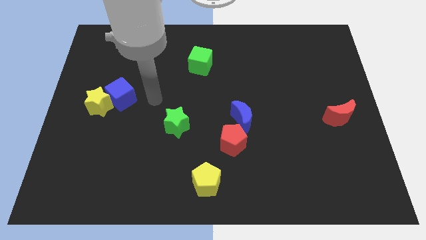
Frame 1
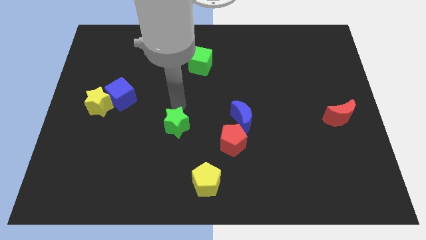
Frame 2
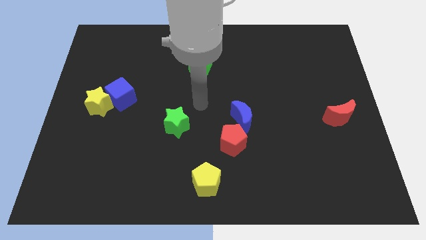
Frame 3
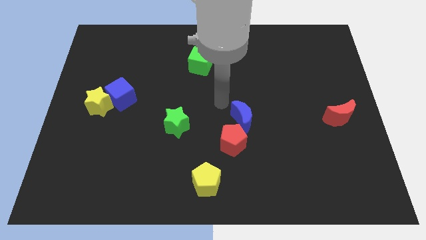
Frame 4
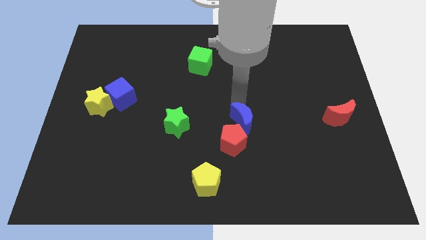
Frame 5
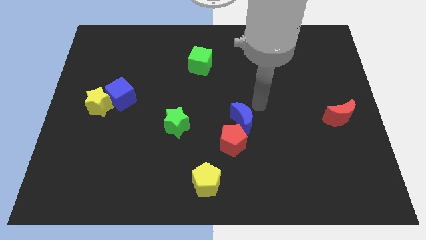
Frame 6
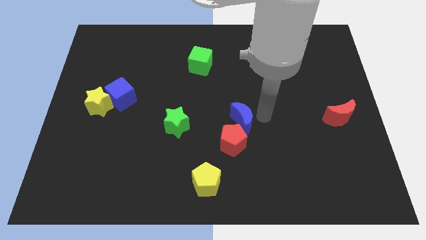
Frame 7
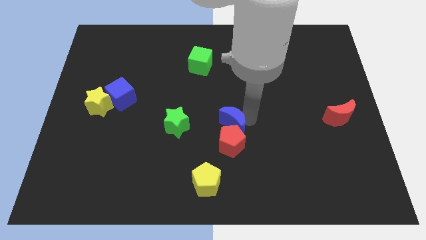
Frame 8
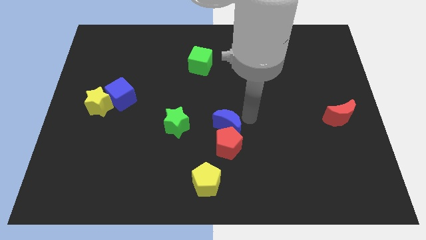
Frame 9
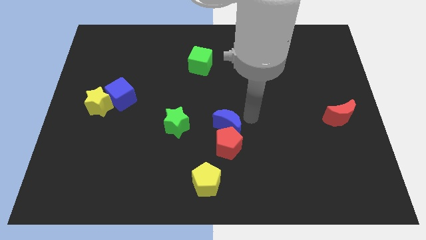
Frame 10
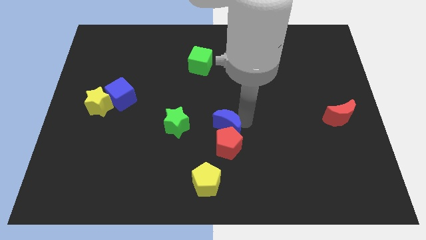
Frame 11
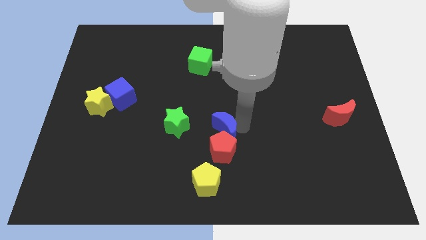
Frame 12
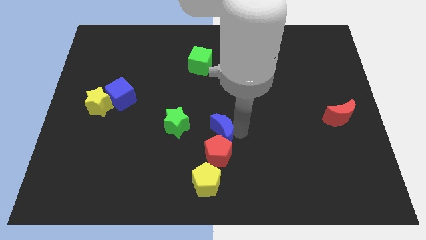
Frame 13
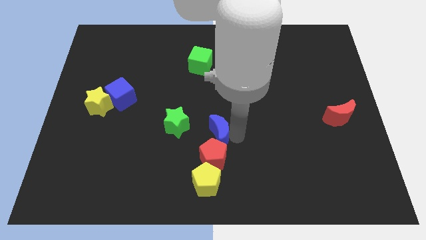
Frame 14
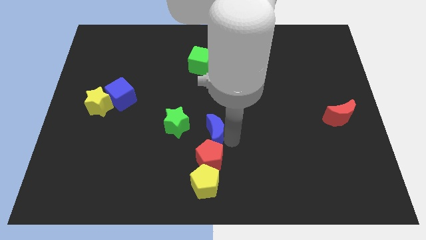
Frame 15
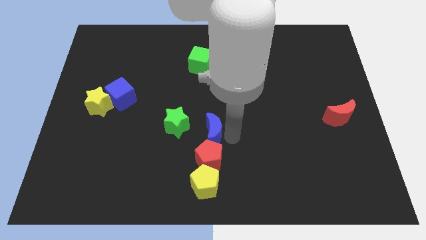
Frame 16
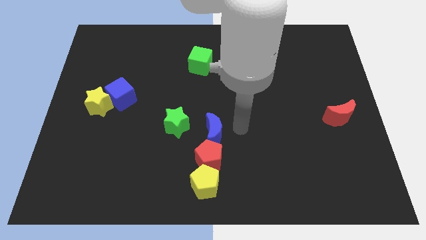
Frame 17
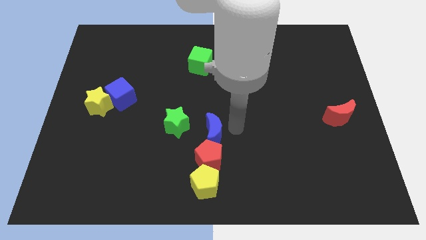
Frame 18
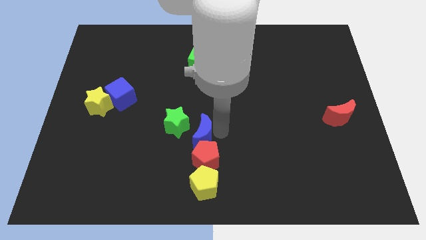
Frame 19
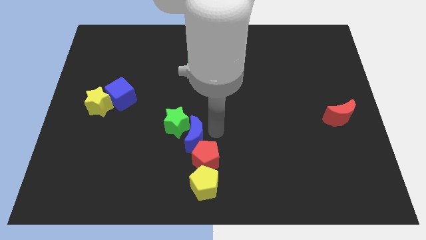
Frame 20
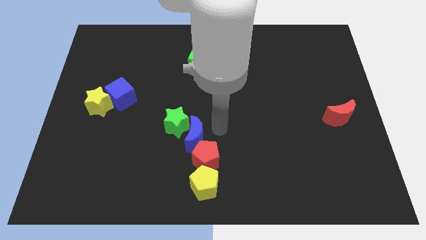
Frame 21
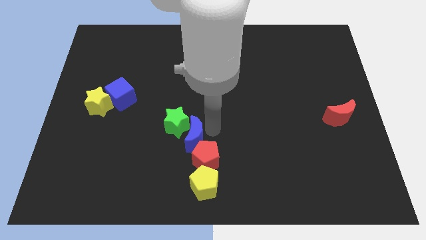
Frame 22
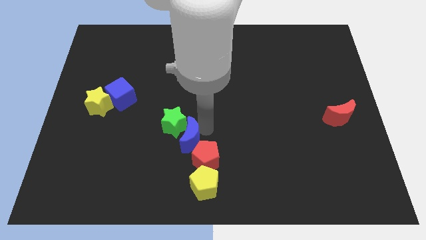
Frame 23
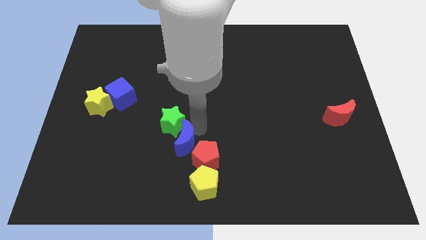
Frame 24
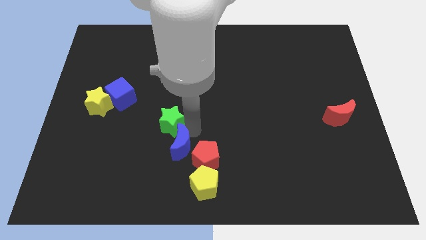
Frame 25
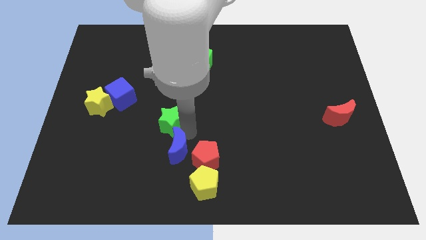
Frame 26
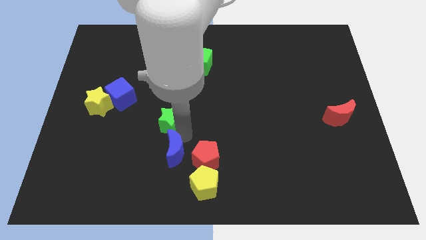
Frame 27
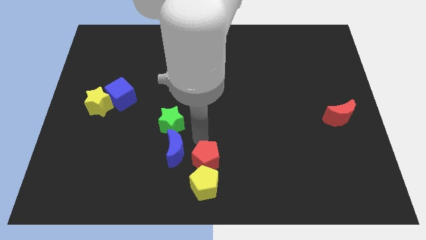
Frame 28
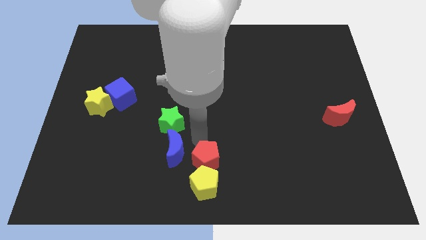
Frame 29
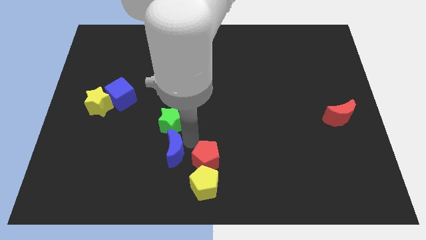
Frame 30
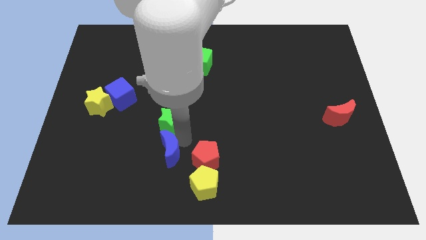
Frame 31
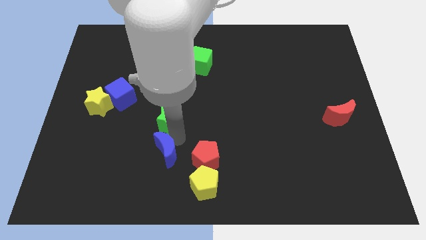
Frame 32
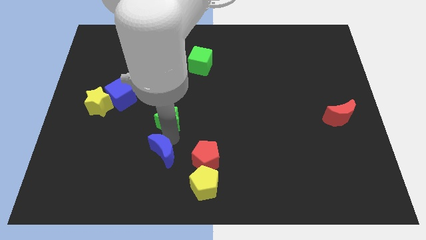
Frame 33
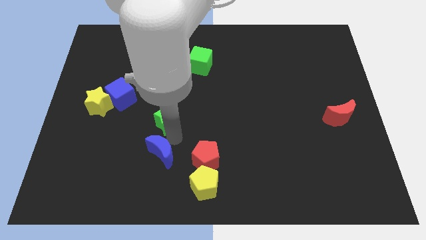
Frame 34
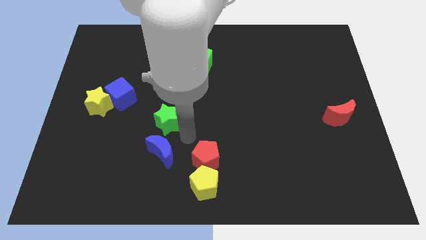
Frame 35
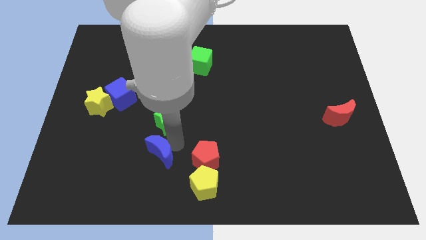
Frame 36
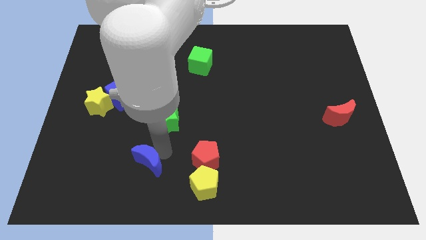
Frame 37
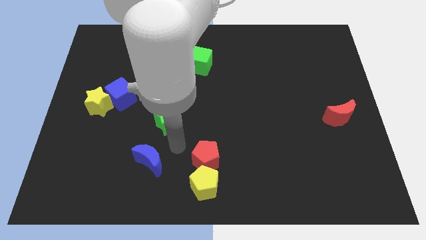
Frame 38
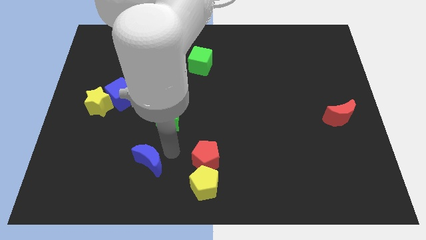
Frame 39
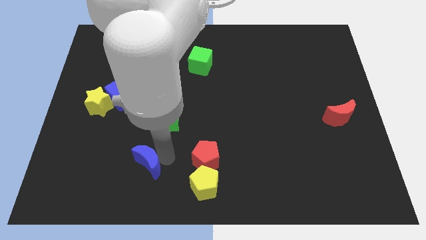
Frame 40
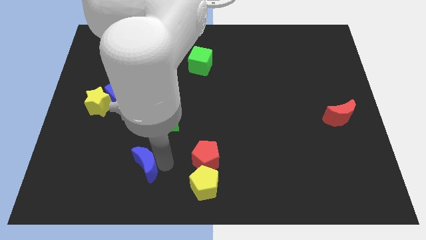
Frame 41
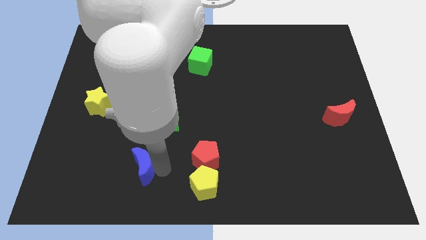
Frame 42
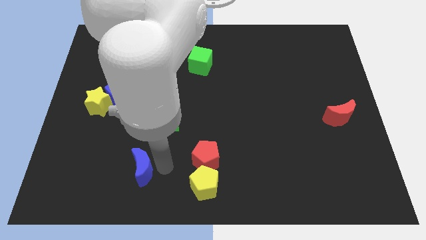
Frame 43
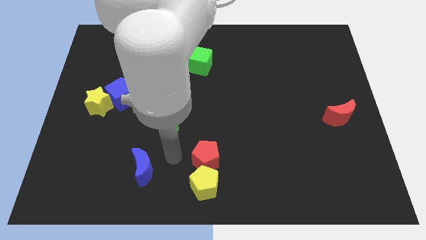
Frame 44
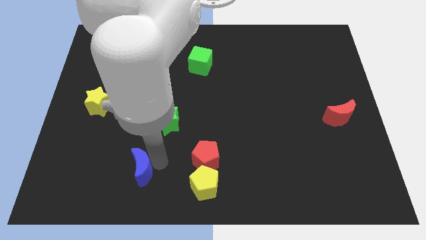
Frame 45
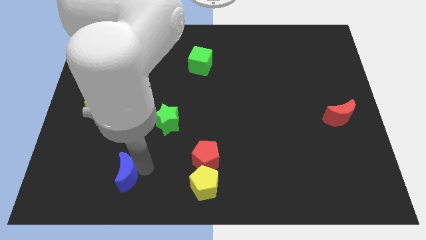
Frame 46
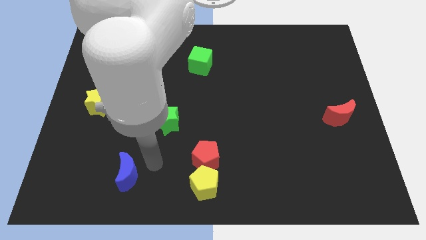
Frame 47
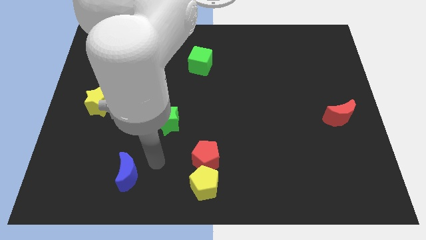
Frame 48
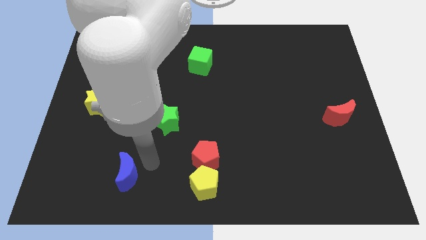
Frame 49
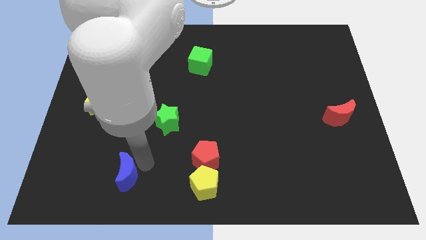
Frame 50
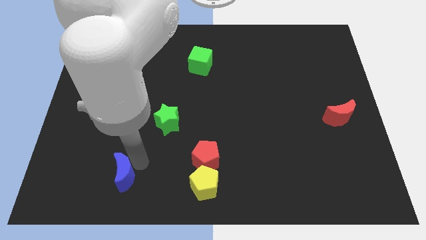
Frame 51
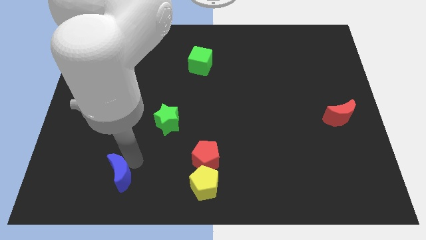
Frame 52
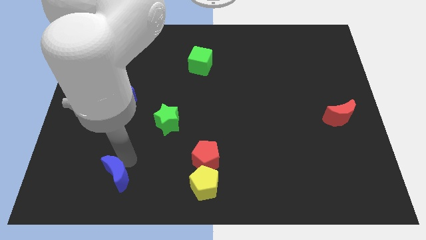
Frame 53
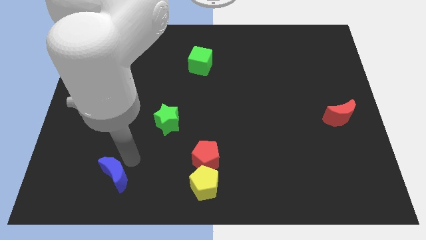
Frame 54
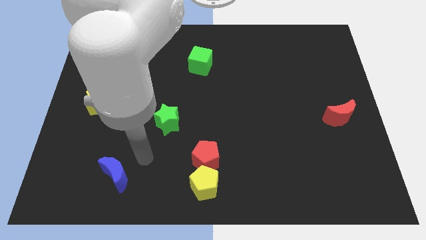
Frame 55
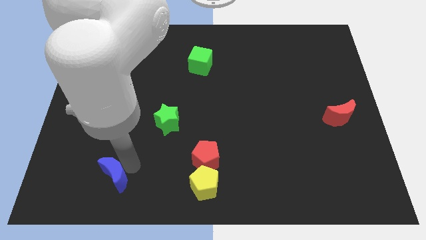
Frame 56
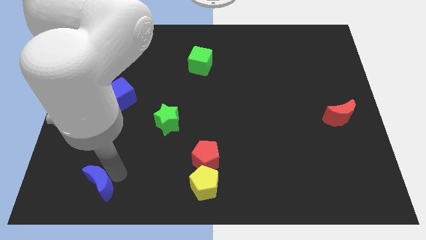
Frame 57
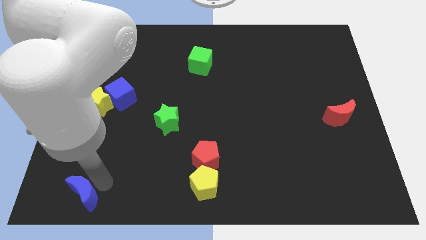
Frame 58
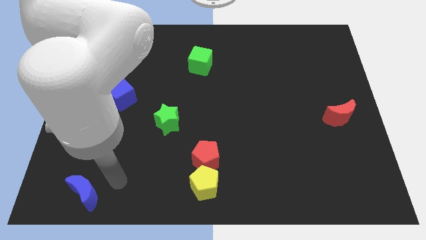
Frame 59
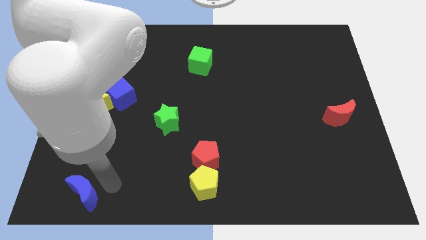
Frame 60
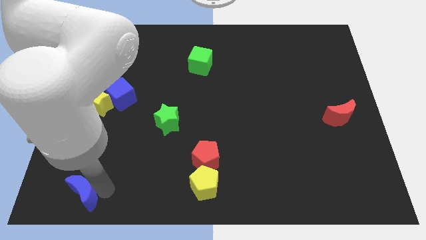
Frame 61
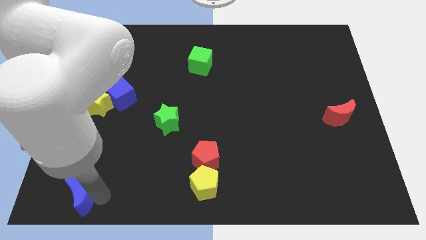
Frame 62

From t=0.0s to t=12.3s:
push the blue moon to the bottom left
